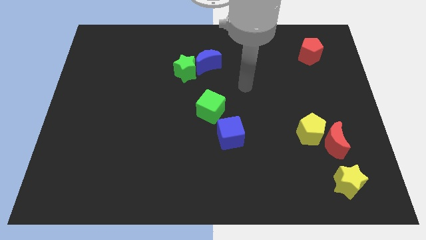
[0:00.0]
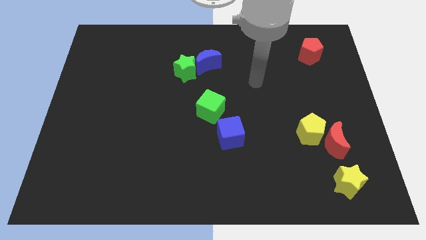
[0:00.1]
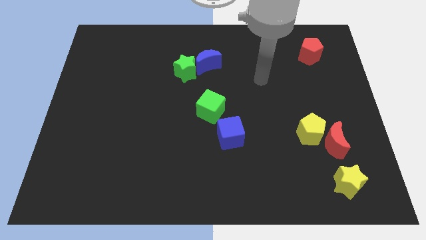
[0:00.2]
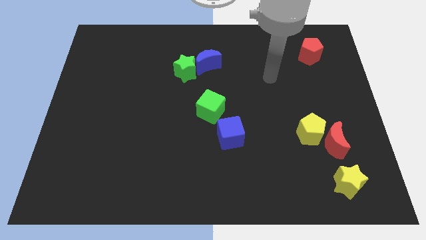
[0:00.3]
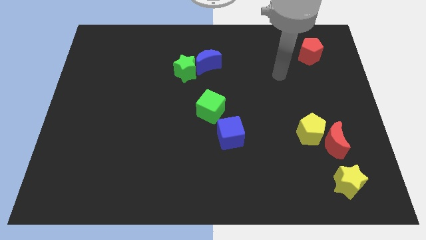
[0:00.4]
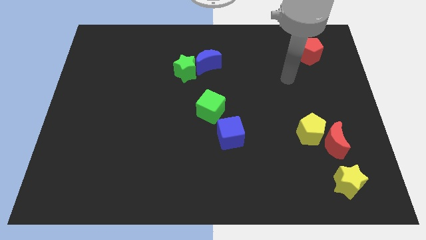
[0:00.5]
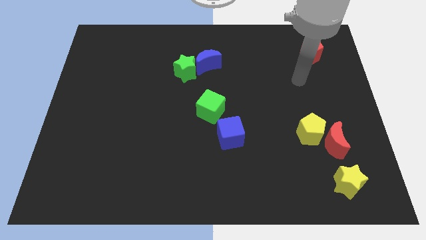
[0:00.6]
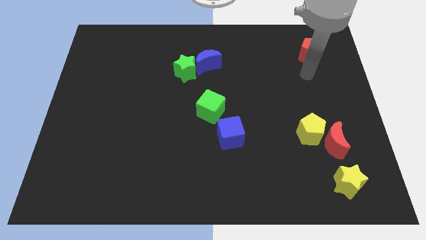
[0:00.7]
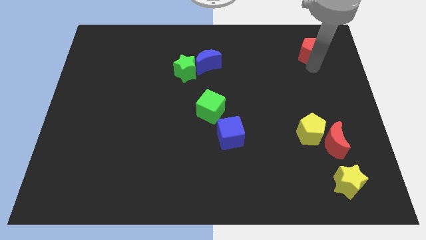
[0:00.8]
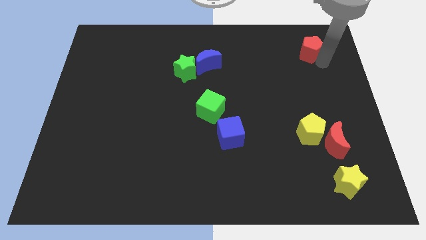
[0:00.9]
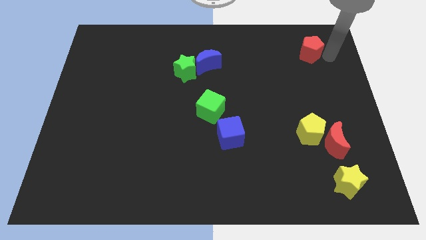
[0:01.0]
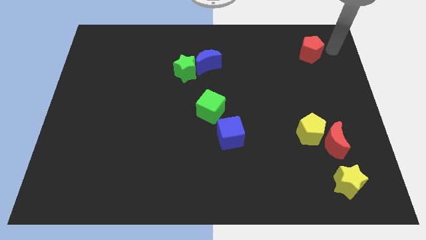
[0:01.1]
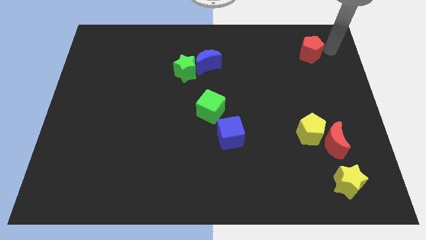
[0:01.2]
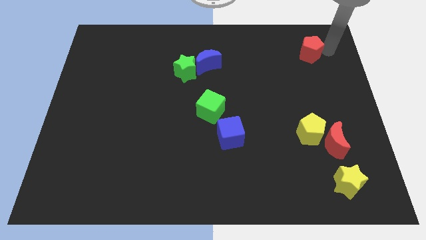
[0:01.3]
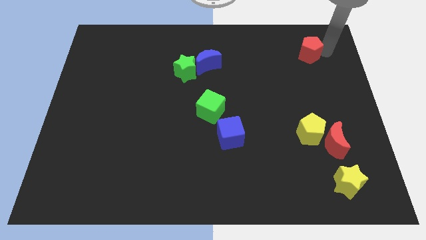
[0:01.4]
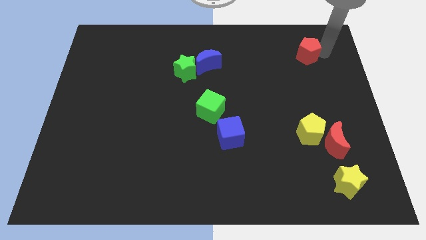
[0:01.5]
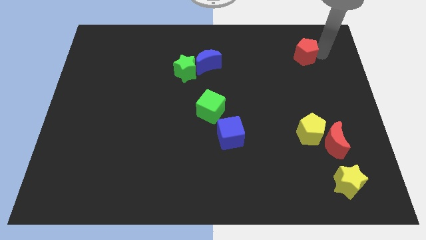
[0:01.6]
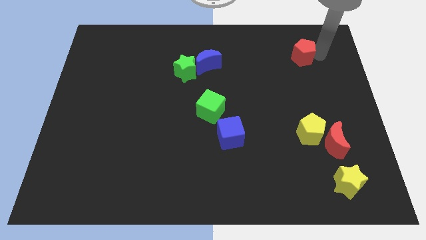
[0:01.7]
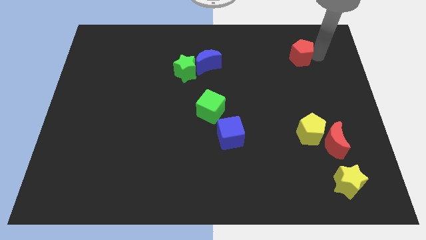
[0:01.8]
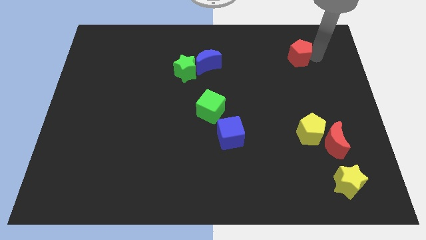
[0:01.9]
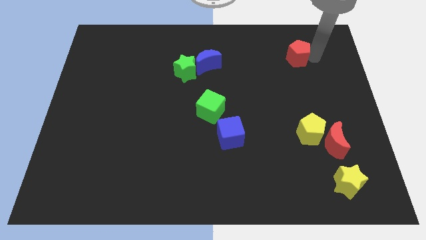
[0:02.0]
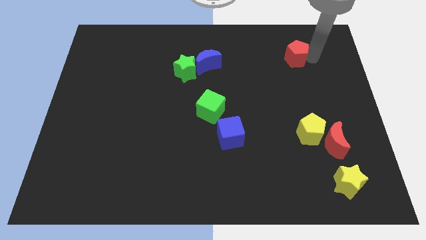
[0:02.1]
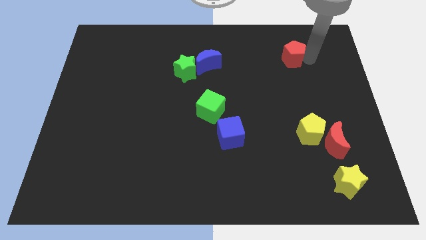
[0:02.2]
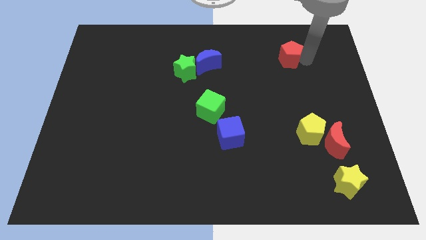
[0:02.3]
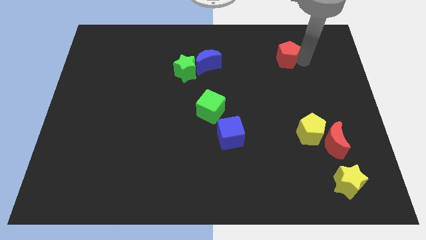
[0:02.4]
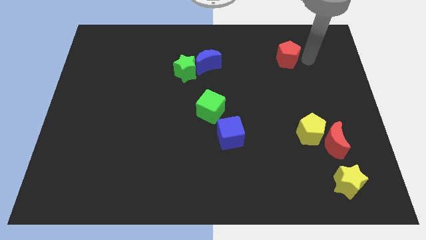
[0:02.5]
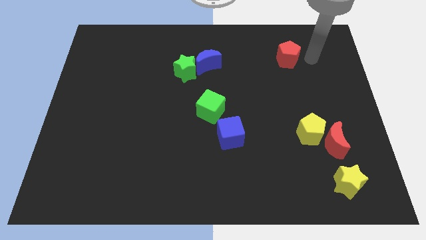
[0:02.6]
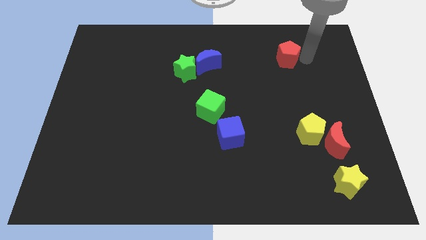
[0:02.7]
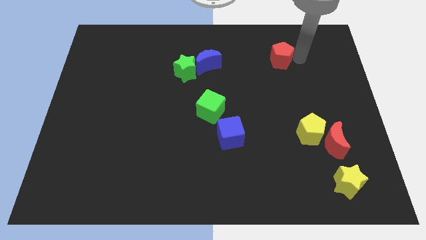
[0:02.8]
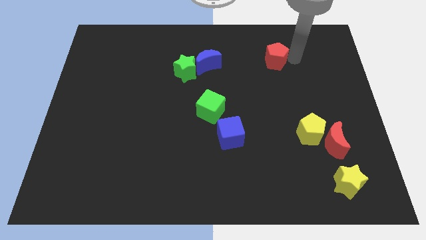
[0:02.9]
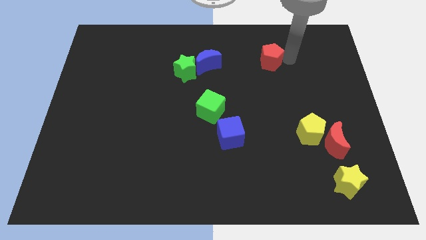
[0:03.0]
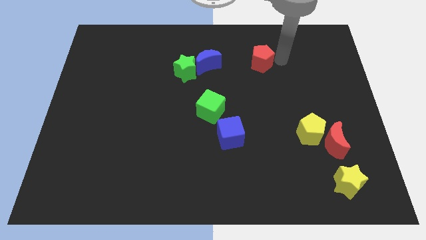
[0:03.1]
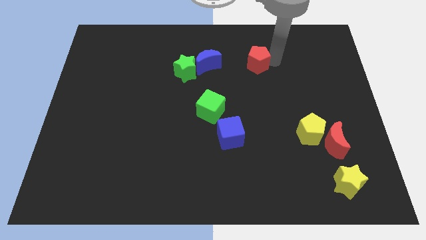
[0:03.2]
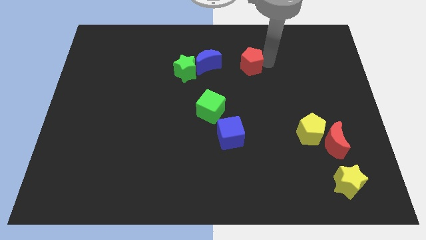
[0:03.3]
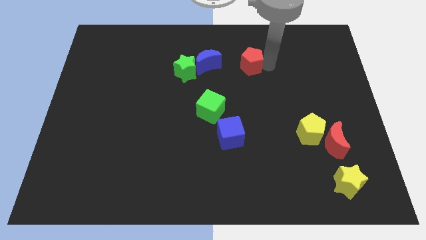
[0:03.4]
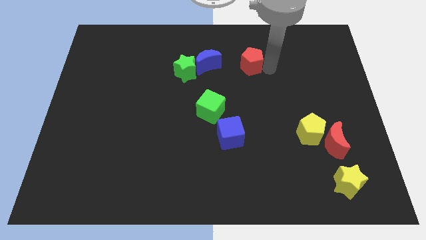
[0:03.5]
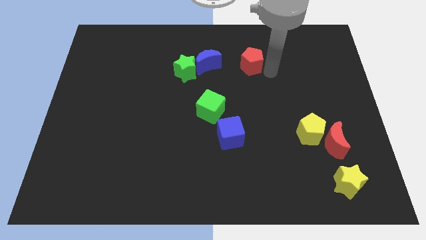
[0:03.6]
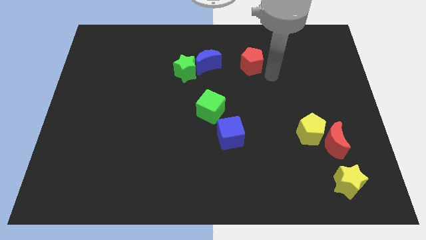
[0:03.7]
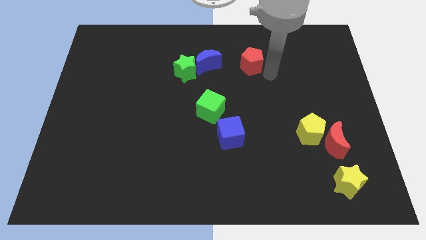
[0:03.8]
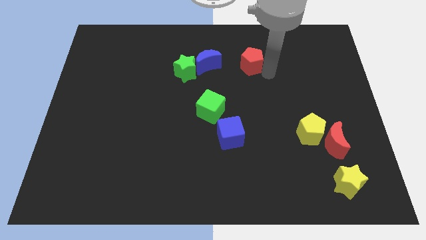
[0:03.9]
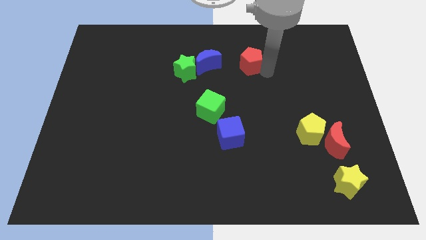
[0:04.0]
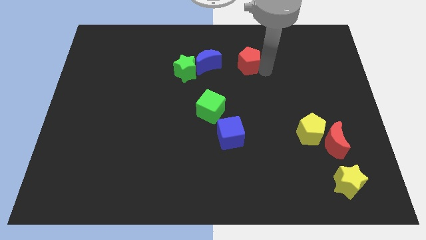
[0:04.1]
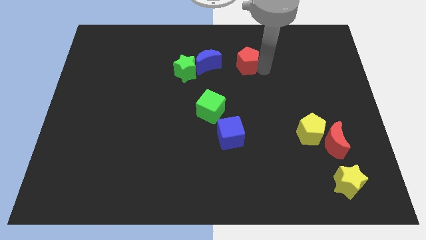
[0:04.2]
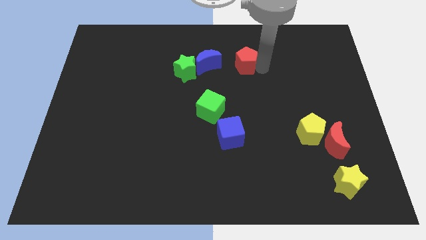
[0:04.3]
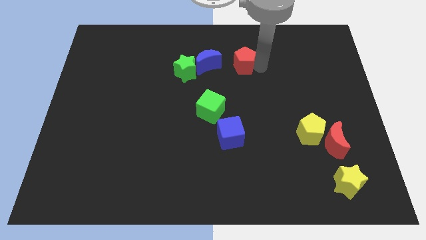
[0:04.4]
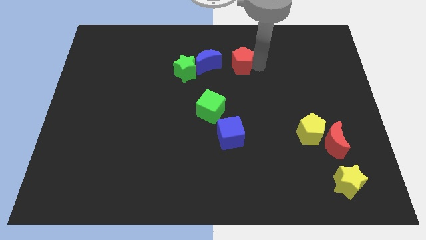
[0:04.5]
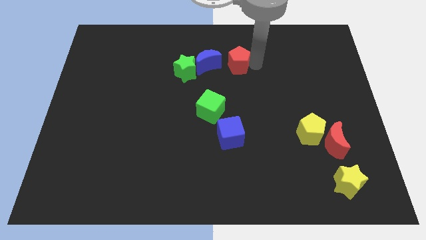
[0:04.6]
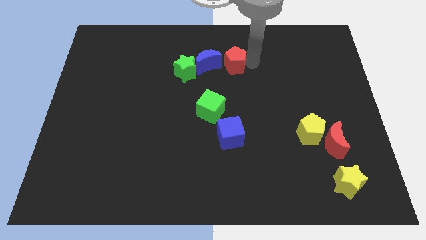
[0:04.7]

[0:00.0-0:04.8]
slide the red pentagon to the left

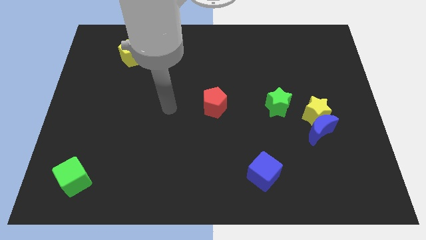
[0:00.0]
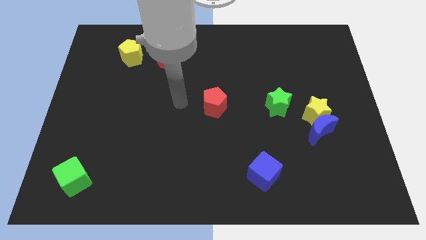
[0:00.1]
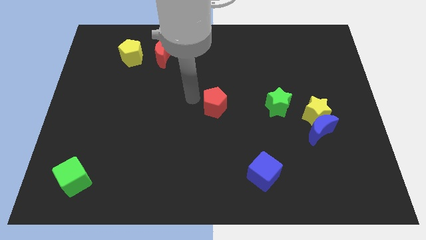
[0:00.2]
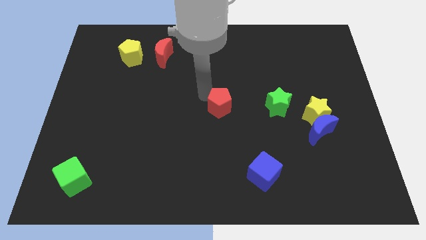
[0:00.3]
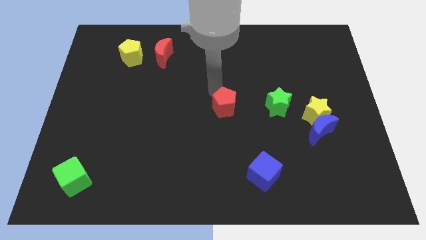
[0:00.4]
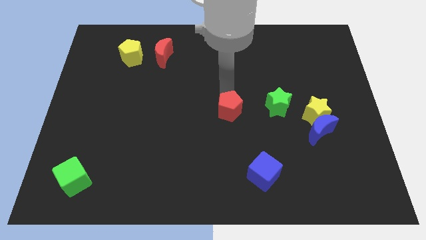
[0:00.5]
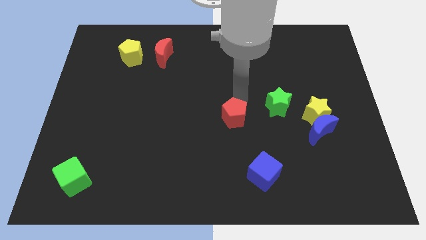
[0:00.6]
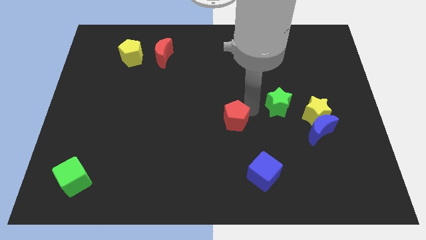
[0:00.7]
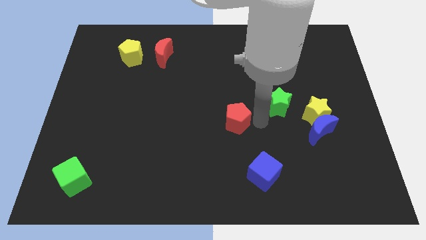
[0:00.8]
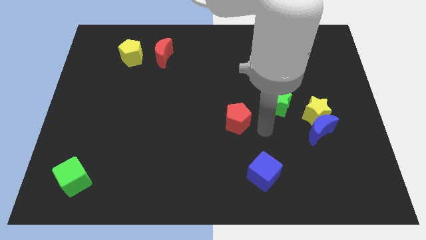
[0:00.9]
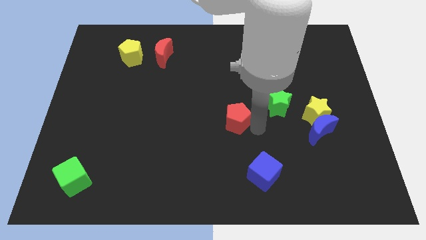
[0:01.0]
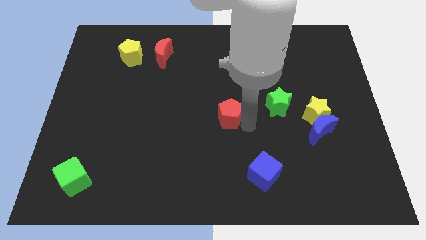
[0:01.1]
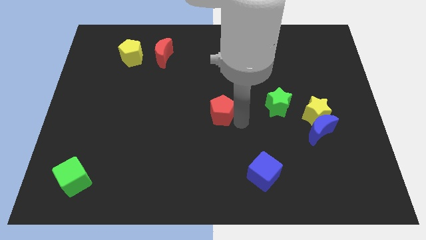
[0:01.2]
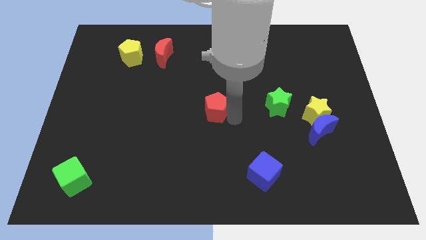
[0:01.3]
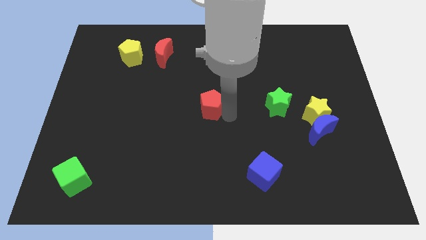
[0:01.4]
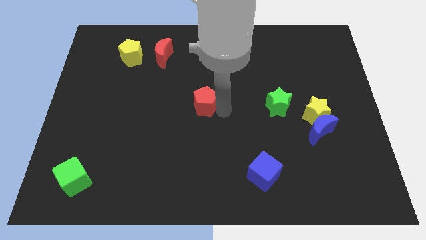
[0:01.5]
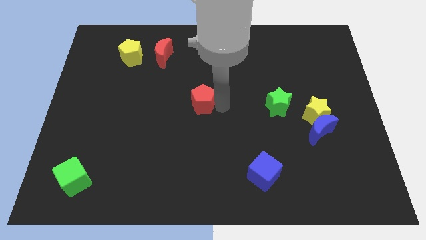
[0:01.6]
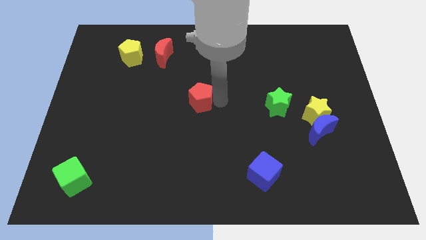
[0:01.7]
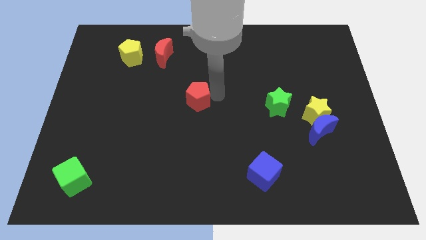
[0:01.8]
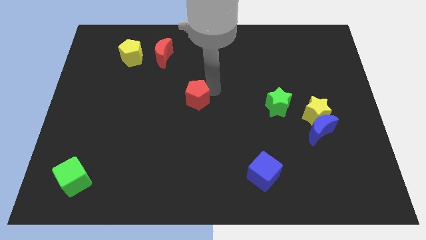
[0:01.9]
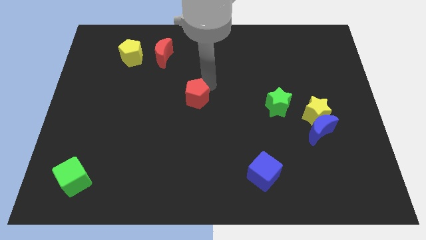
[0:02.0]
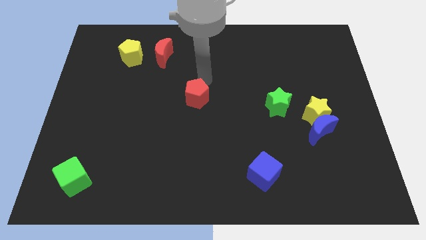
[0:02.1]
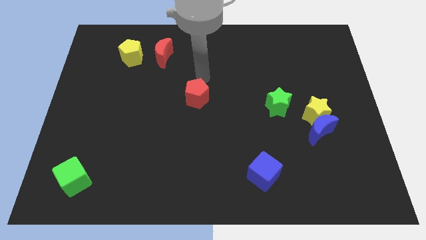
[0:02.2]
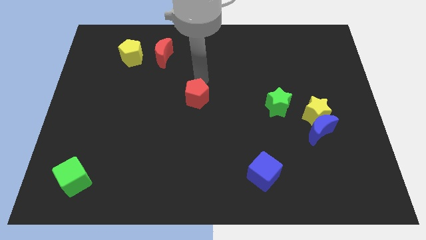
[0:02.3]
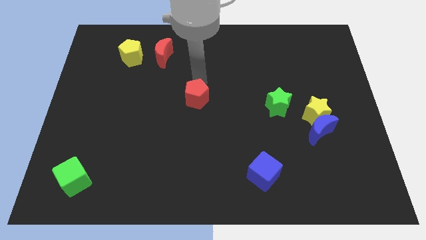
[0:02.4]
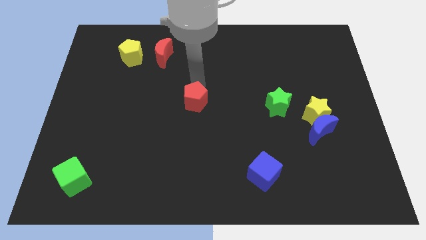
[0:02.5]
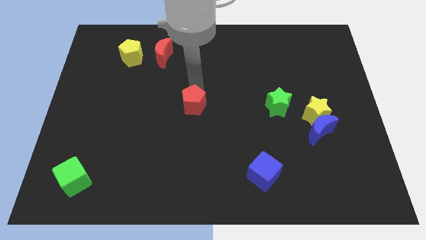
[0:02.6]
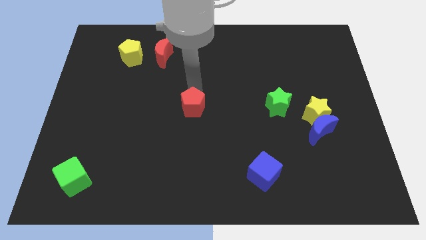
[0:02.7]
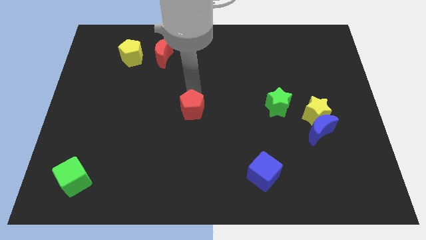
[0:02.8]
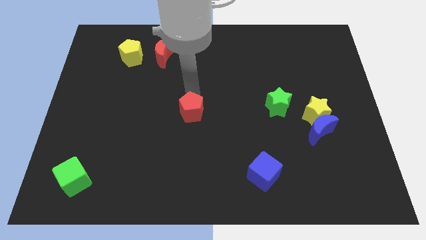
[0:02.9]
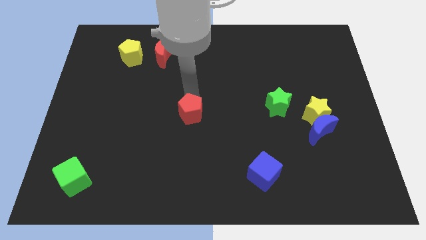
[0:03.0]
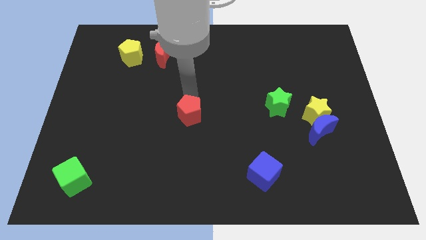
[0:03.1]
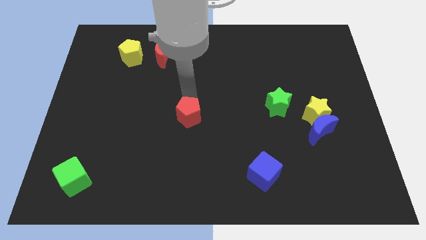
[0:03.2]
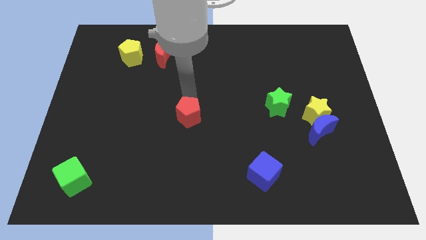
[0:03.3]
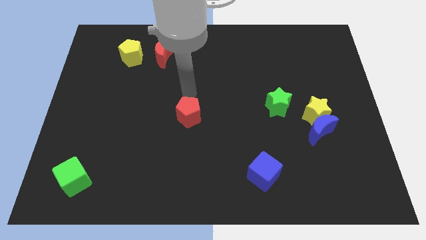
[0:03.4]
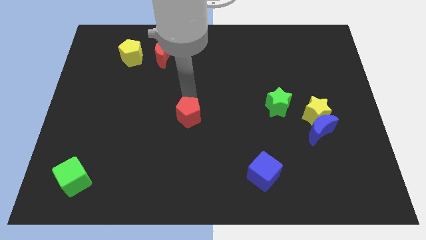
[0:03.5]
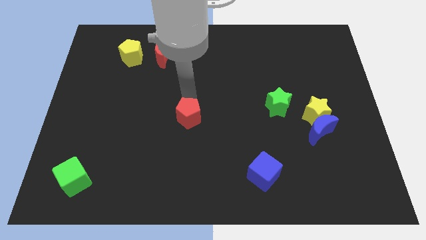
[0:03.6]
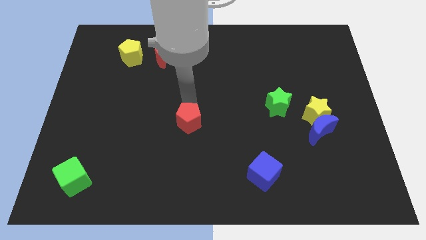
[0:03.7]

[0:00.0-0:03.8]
slightly move the red pentagon downwards and left diagonally
